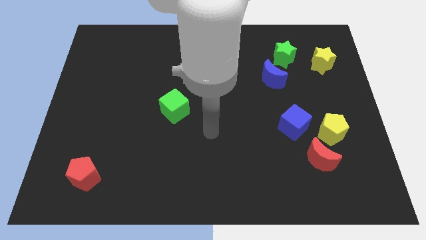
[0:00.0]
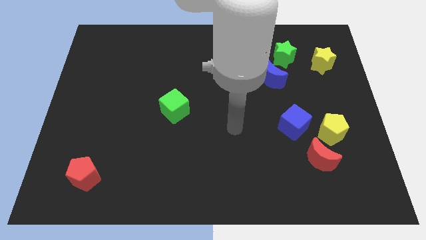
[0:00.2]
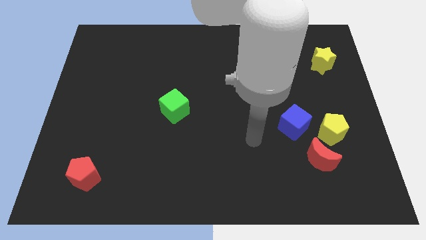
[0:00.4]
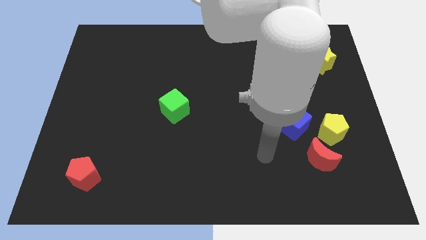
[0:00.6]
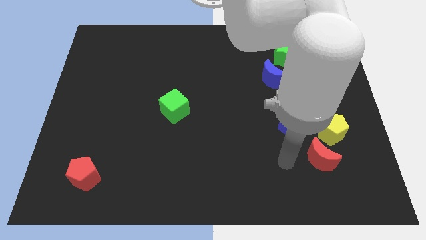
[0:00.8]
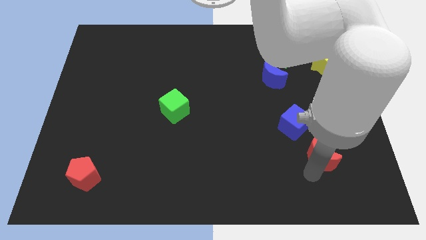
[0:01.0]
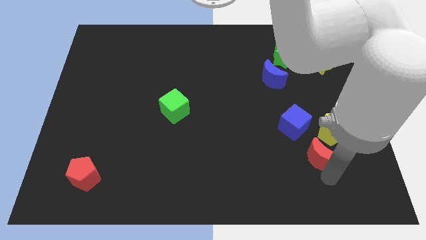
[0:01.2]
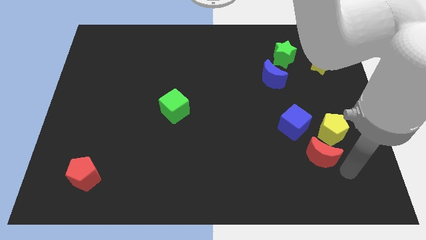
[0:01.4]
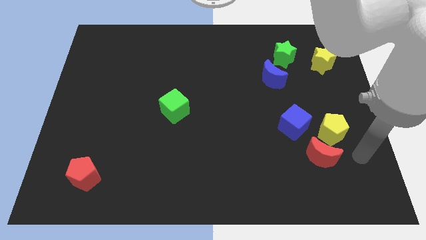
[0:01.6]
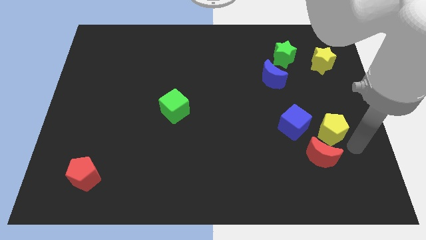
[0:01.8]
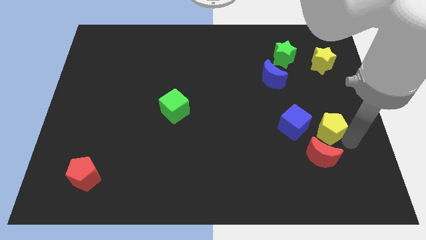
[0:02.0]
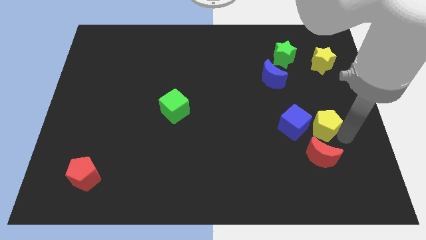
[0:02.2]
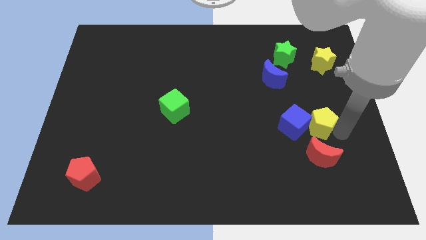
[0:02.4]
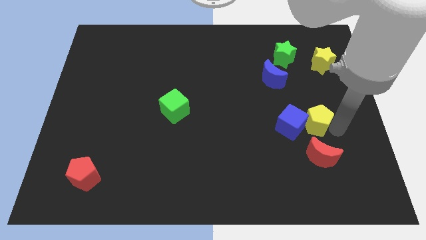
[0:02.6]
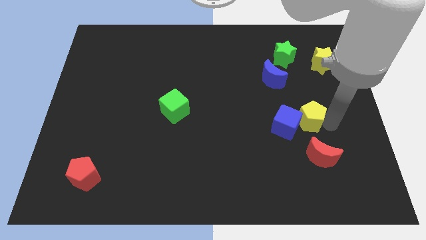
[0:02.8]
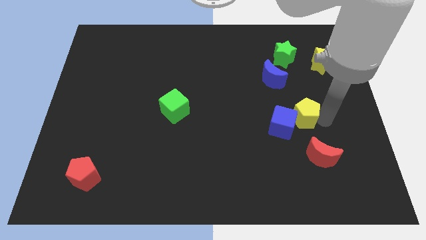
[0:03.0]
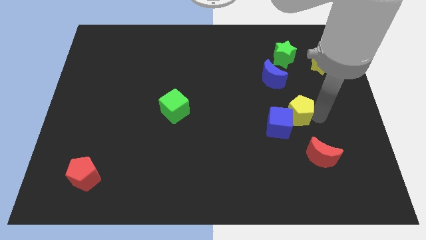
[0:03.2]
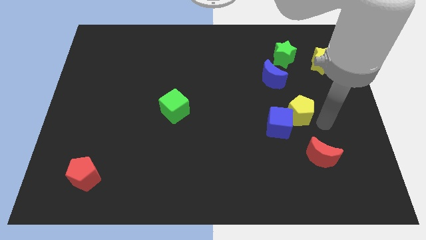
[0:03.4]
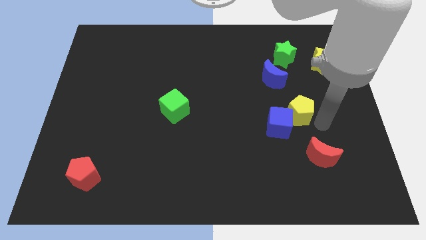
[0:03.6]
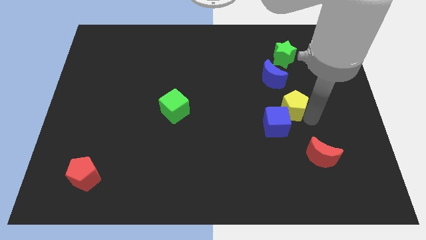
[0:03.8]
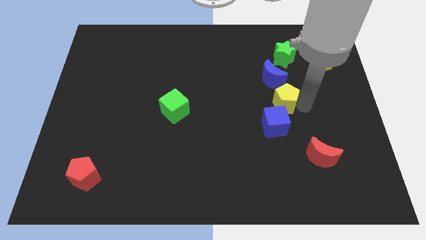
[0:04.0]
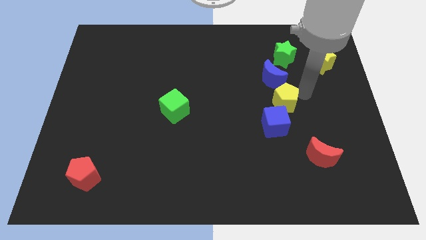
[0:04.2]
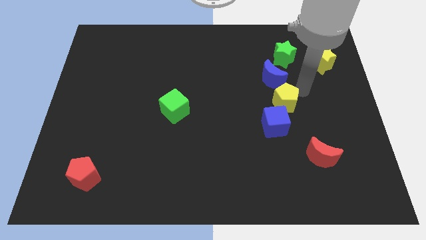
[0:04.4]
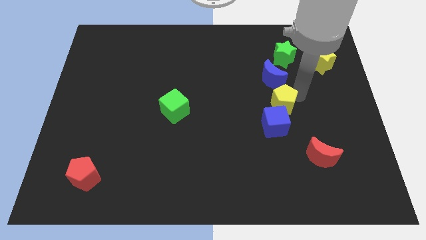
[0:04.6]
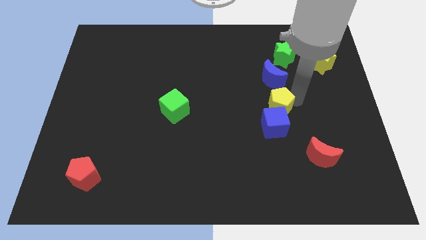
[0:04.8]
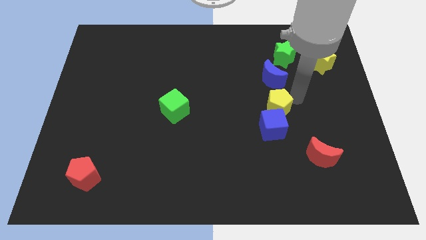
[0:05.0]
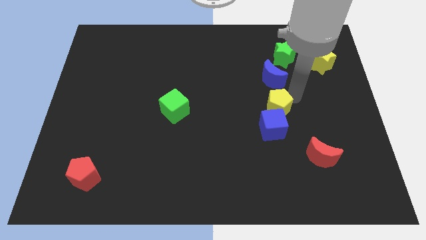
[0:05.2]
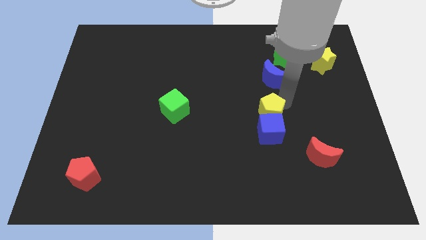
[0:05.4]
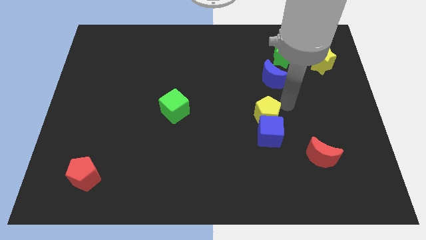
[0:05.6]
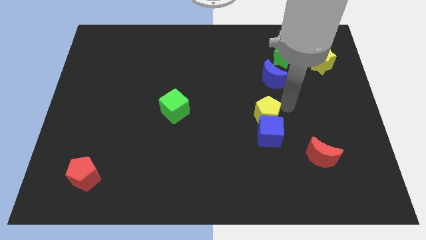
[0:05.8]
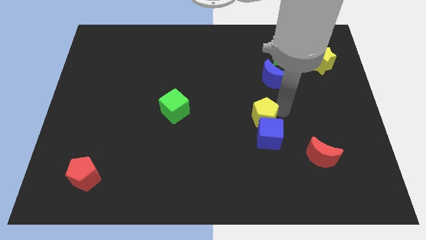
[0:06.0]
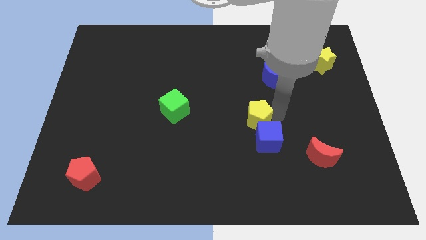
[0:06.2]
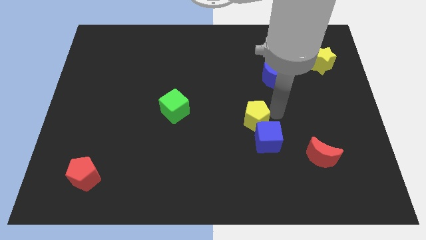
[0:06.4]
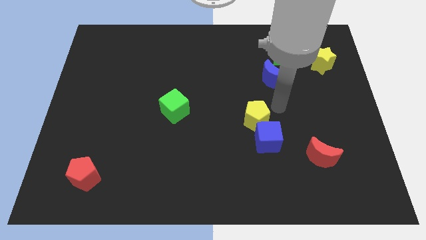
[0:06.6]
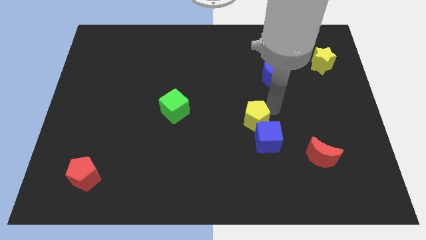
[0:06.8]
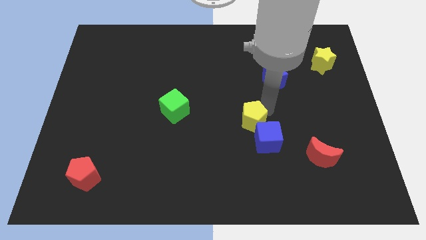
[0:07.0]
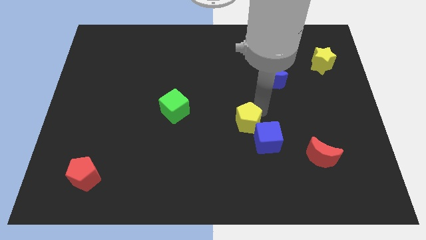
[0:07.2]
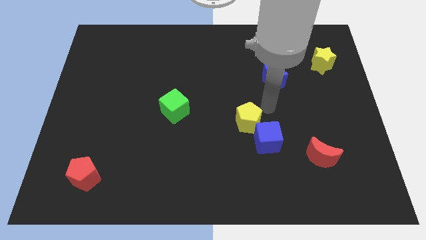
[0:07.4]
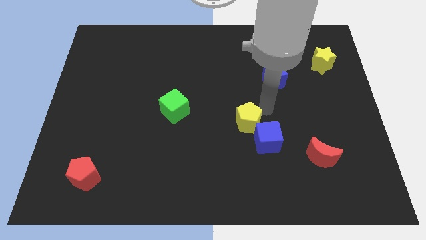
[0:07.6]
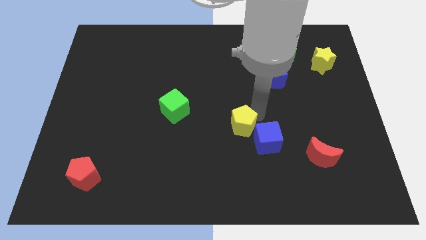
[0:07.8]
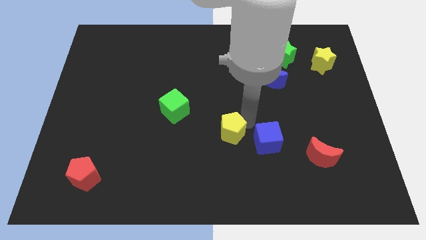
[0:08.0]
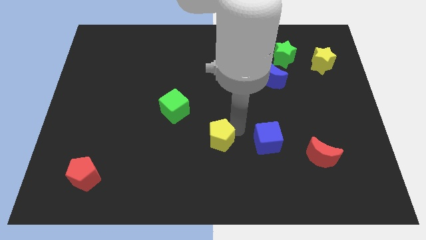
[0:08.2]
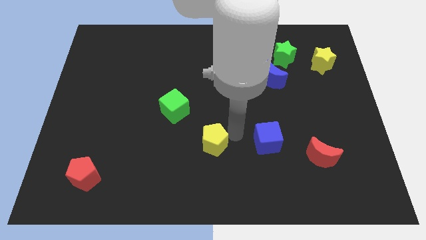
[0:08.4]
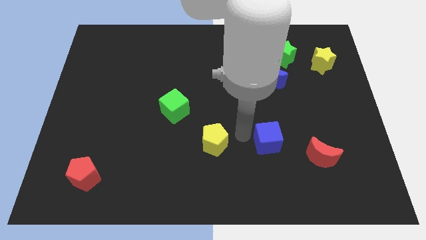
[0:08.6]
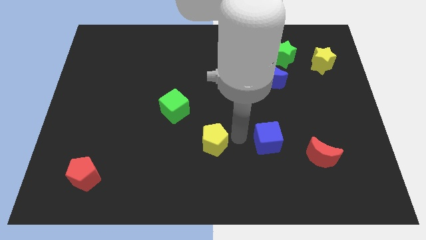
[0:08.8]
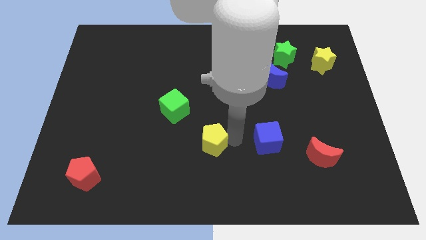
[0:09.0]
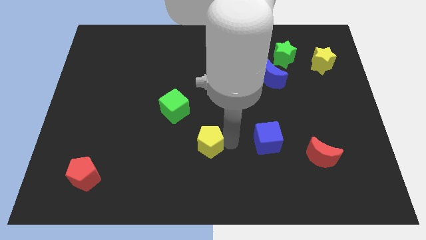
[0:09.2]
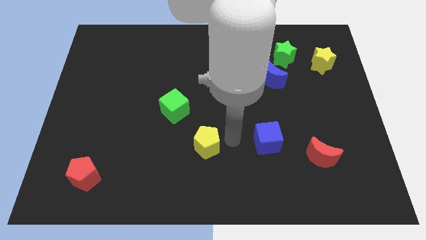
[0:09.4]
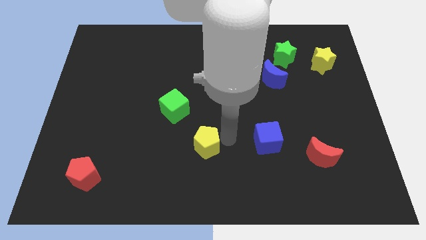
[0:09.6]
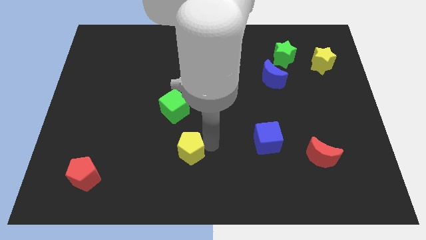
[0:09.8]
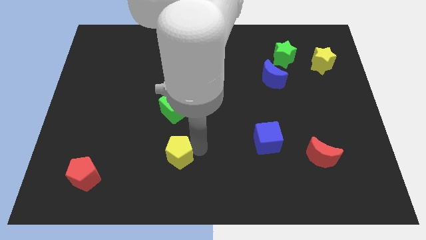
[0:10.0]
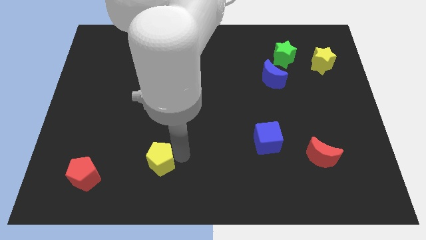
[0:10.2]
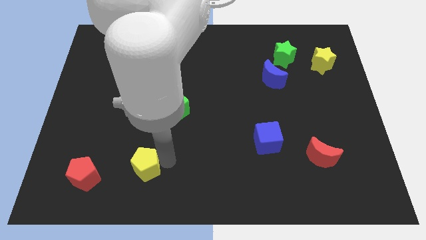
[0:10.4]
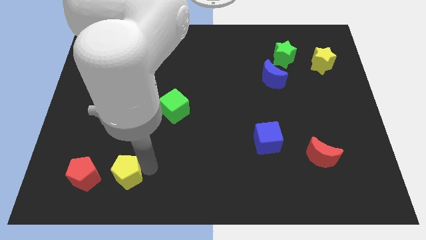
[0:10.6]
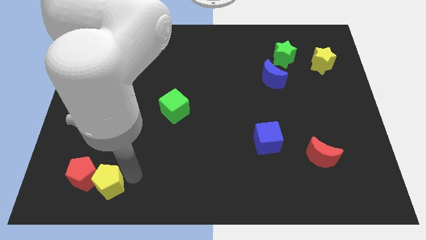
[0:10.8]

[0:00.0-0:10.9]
put the yellow pentagon next to the red pentagon

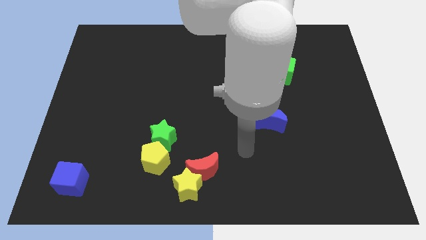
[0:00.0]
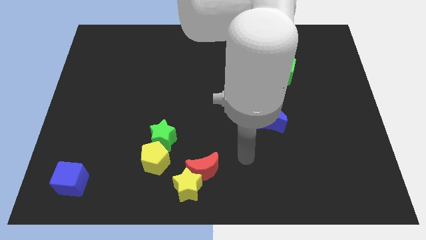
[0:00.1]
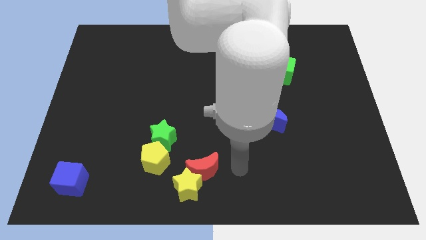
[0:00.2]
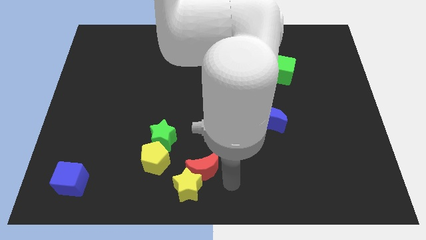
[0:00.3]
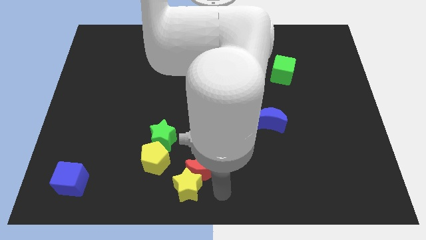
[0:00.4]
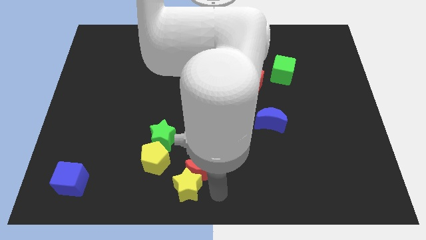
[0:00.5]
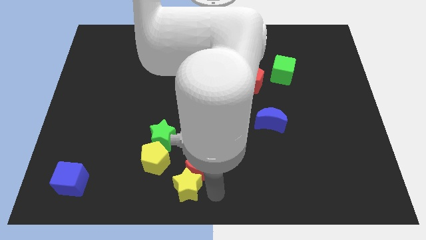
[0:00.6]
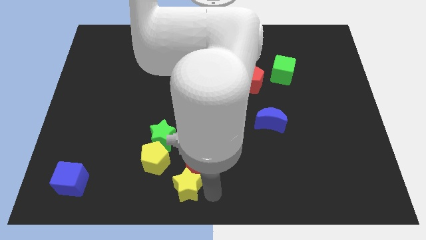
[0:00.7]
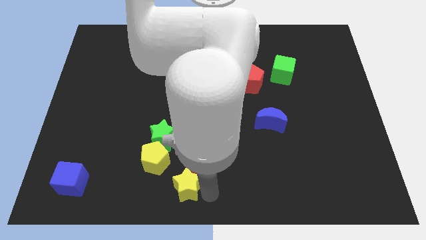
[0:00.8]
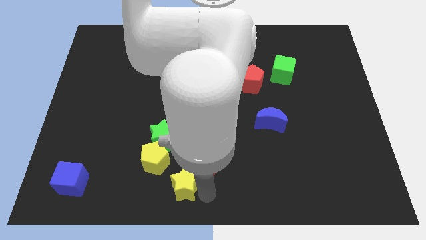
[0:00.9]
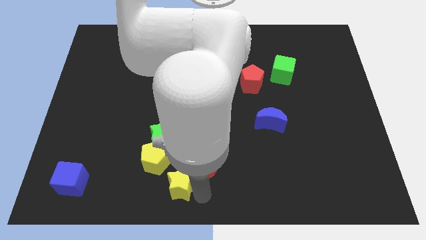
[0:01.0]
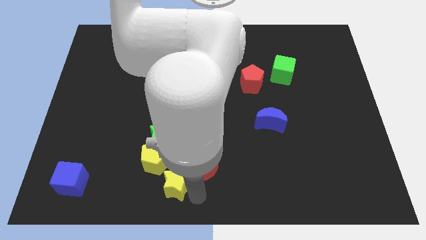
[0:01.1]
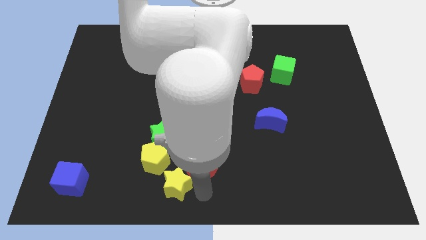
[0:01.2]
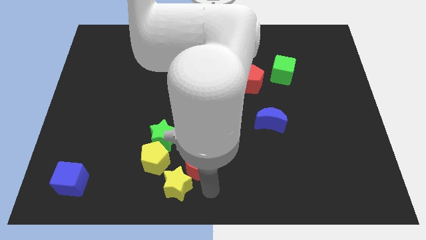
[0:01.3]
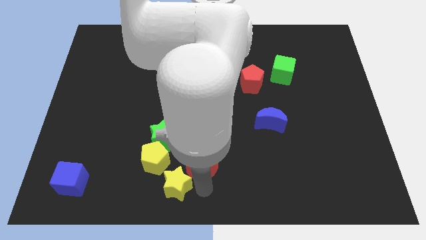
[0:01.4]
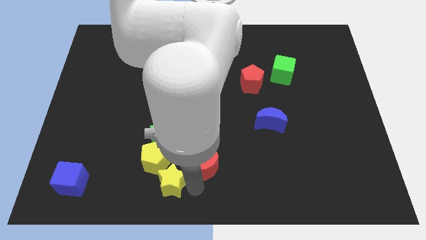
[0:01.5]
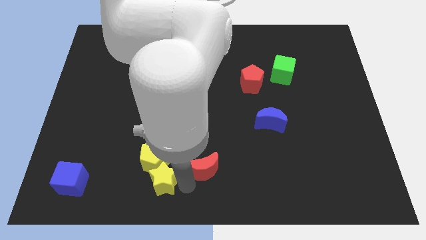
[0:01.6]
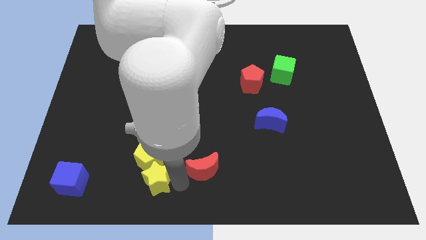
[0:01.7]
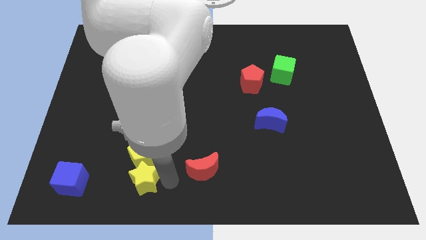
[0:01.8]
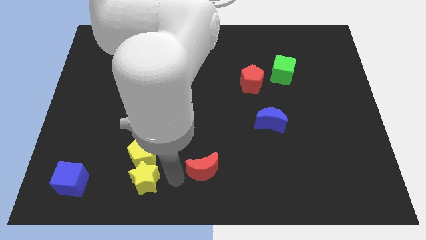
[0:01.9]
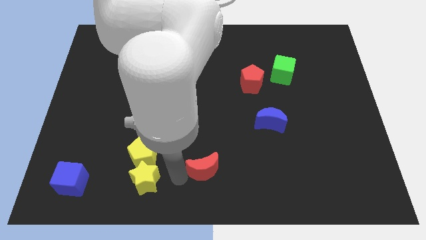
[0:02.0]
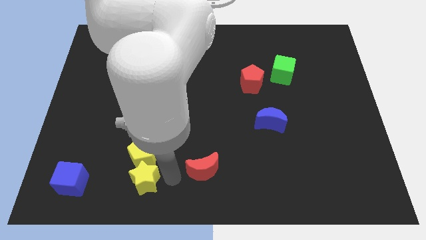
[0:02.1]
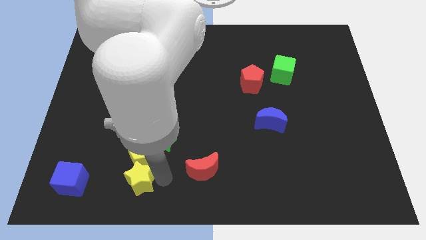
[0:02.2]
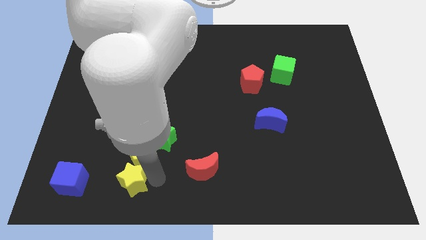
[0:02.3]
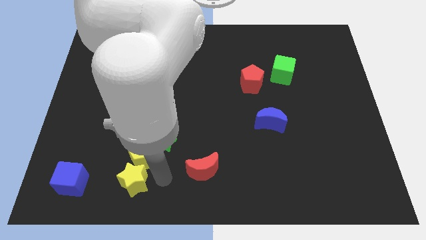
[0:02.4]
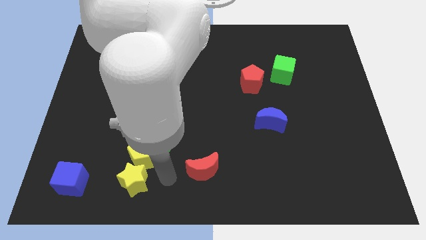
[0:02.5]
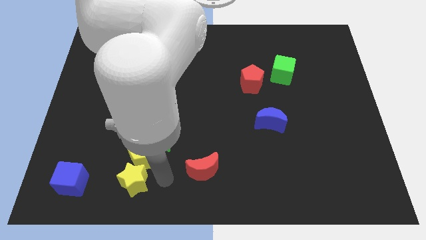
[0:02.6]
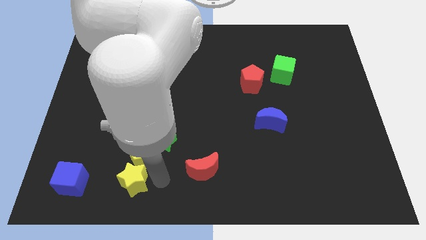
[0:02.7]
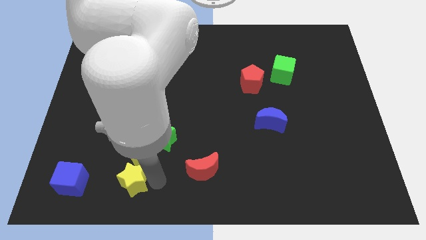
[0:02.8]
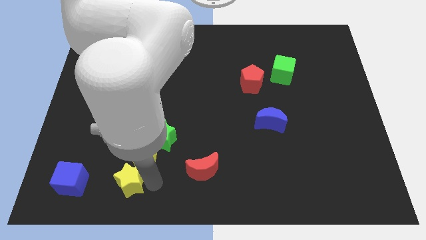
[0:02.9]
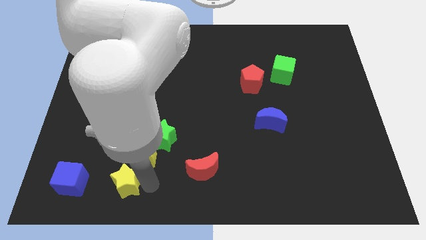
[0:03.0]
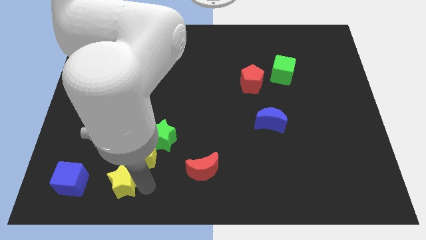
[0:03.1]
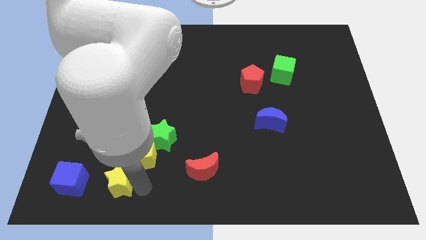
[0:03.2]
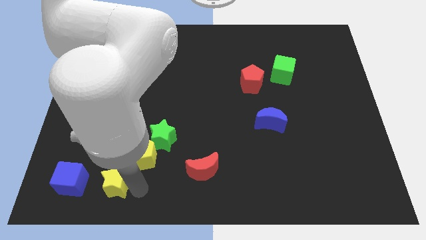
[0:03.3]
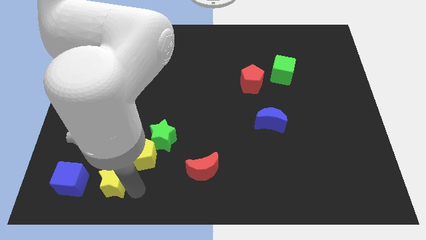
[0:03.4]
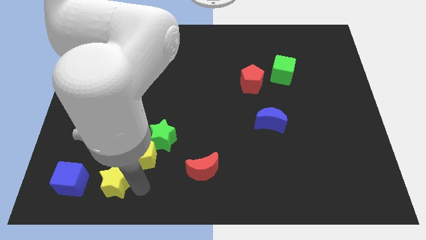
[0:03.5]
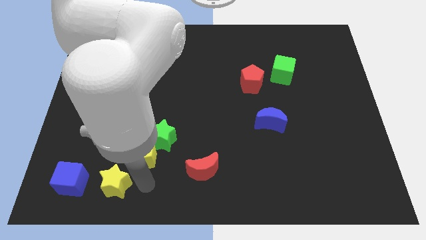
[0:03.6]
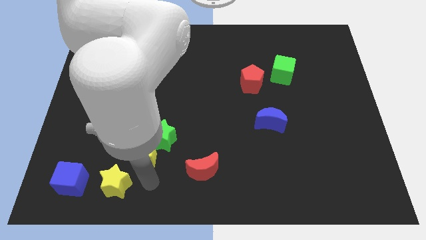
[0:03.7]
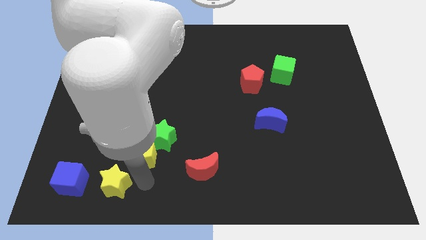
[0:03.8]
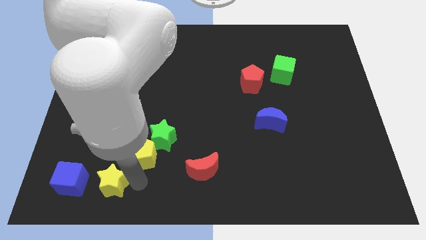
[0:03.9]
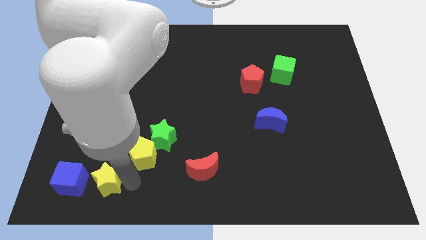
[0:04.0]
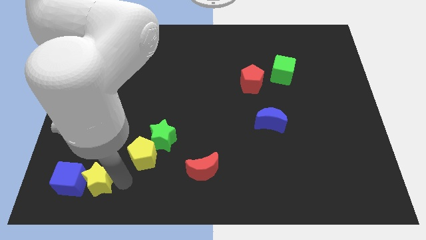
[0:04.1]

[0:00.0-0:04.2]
slide the yellow star to the blue cube
